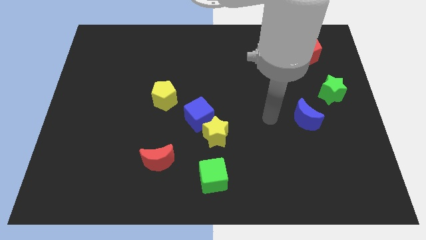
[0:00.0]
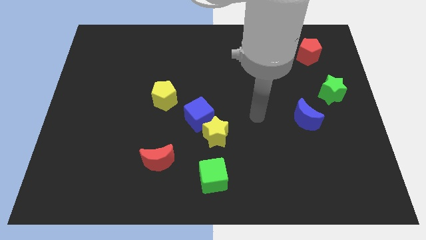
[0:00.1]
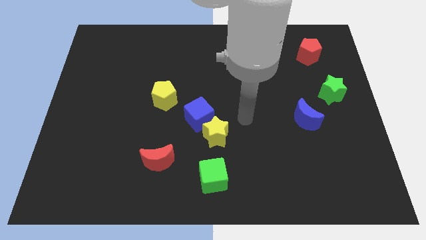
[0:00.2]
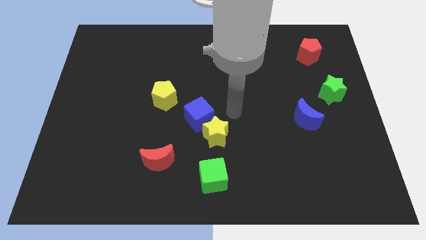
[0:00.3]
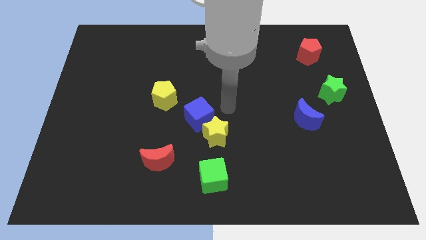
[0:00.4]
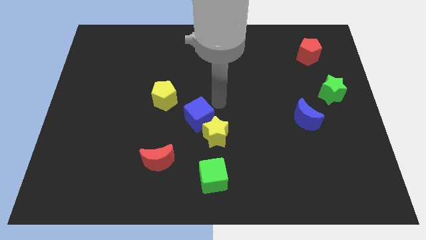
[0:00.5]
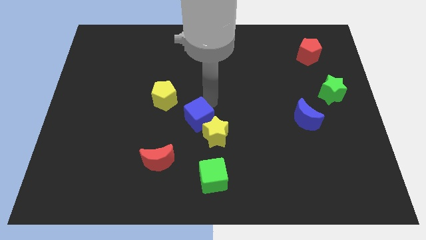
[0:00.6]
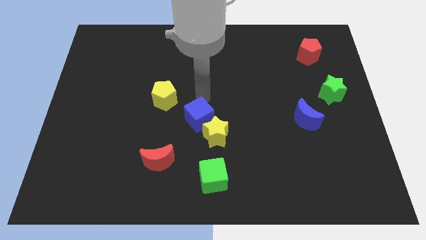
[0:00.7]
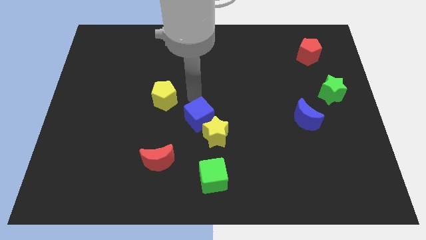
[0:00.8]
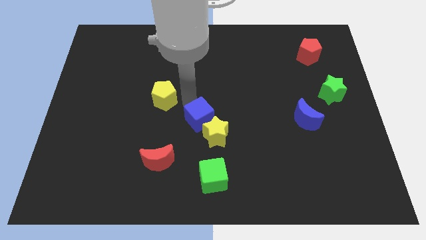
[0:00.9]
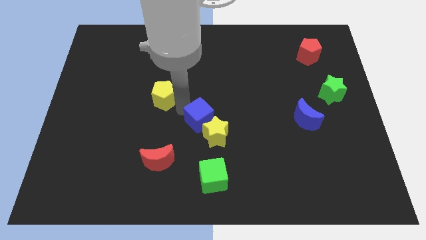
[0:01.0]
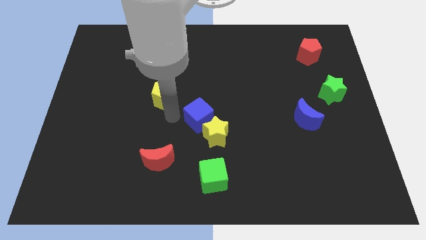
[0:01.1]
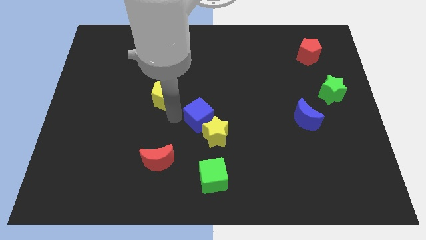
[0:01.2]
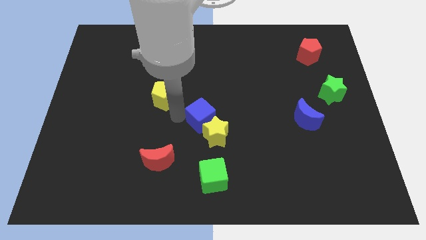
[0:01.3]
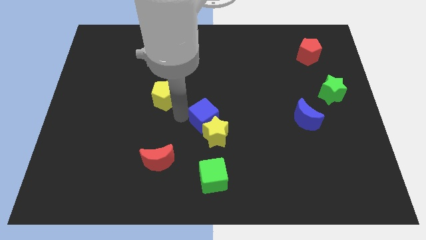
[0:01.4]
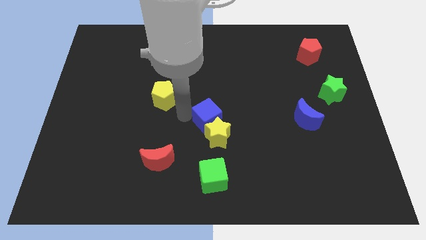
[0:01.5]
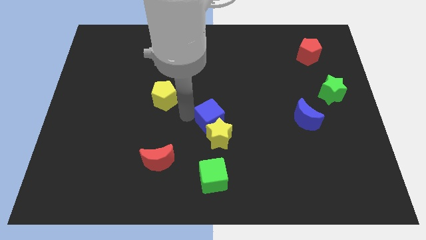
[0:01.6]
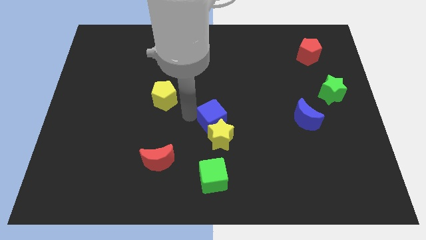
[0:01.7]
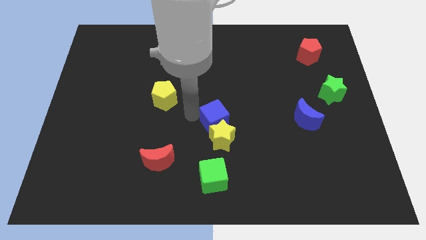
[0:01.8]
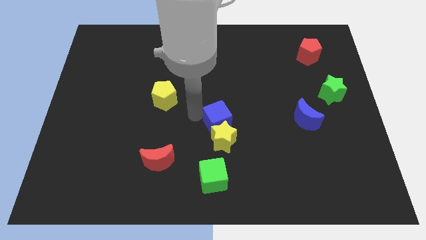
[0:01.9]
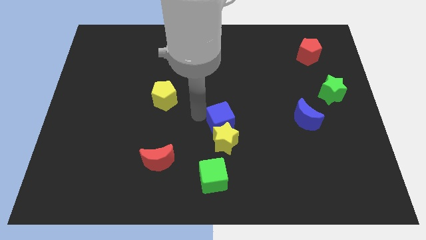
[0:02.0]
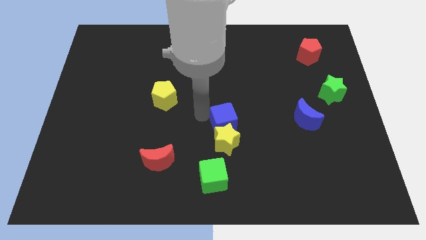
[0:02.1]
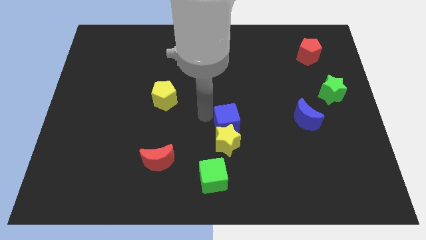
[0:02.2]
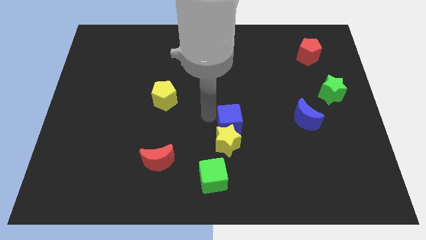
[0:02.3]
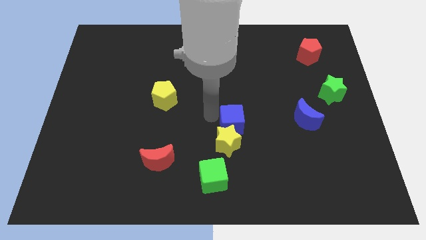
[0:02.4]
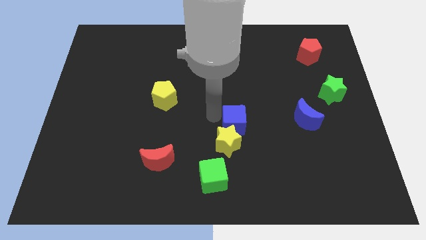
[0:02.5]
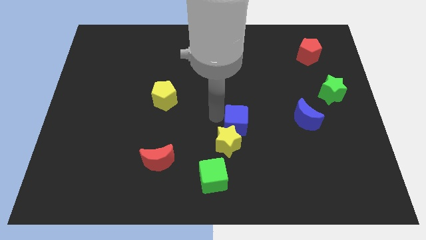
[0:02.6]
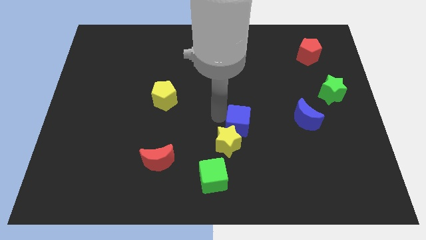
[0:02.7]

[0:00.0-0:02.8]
pull the blue cube apart from the yellow star and yellow pentagon

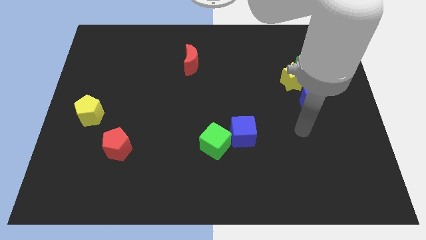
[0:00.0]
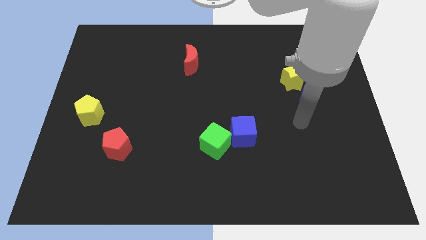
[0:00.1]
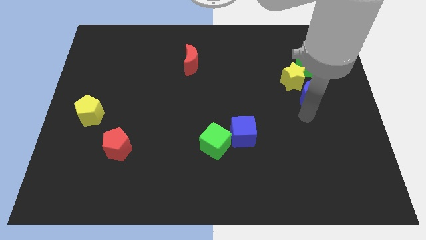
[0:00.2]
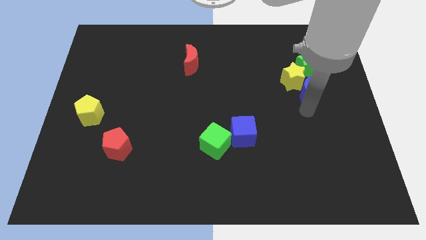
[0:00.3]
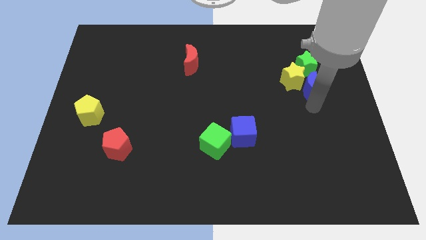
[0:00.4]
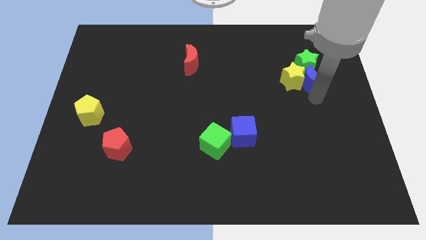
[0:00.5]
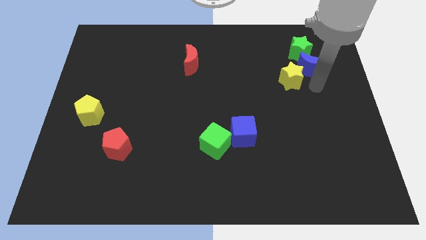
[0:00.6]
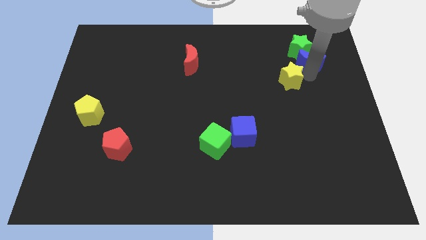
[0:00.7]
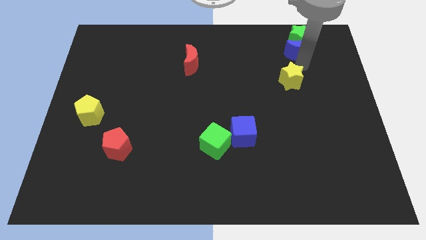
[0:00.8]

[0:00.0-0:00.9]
pull the yellow star apart from the green star and blue moon

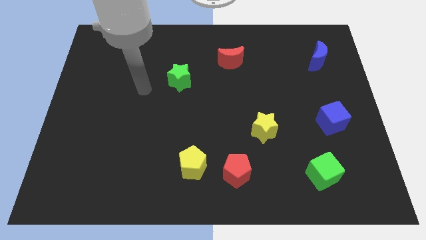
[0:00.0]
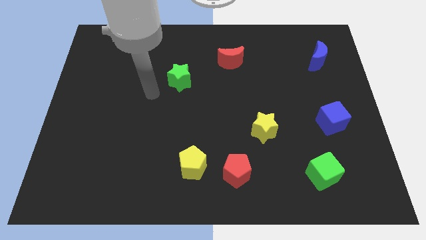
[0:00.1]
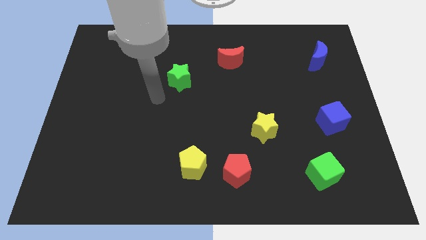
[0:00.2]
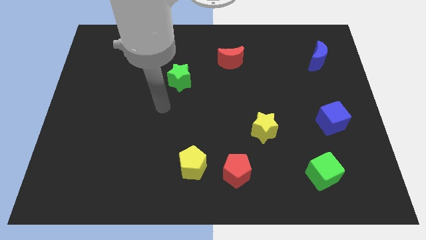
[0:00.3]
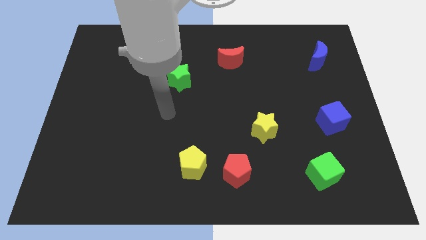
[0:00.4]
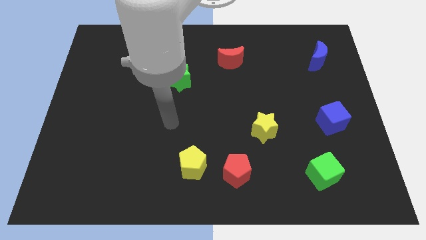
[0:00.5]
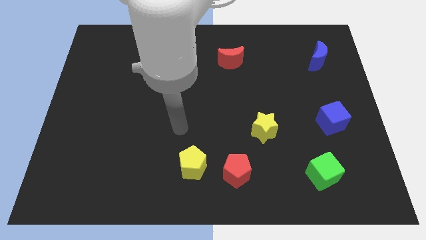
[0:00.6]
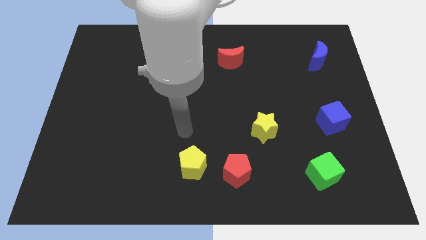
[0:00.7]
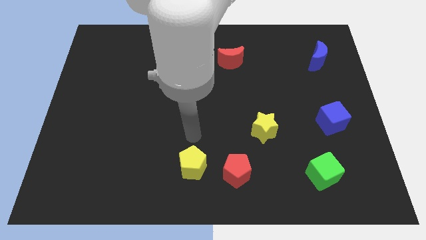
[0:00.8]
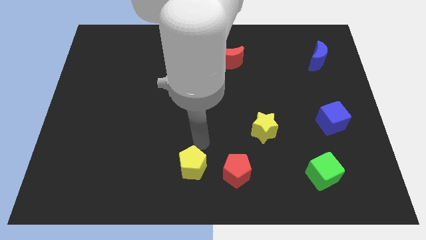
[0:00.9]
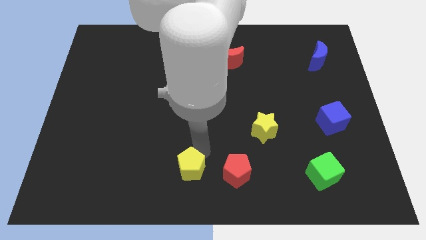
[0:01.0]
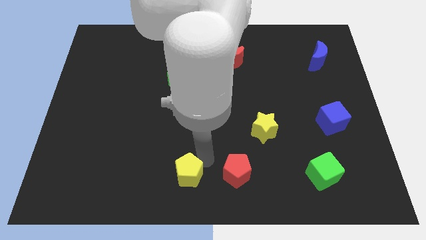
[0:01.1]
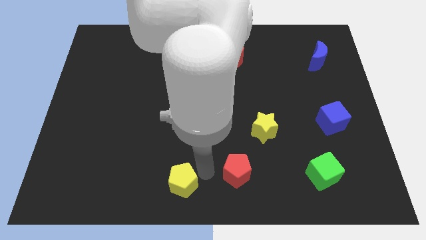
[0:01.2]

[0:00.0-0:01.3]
pull the red pentagon apart from the yellow pentagon

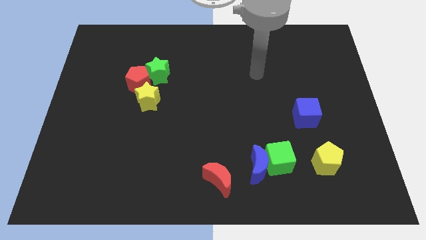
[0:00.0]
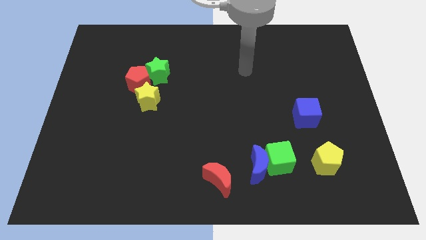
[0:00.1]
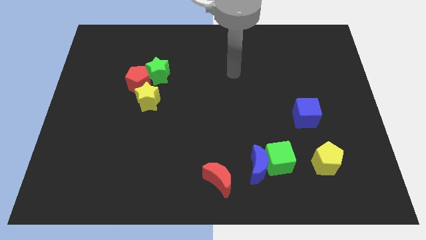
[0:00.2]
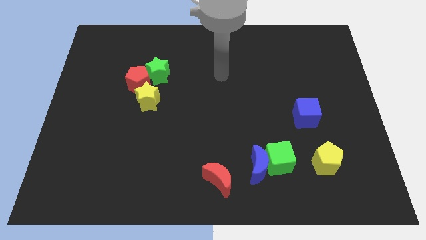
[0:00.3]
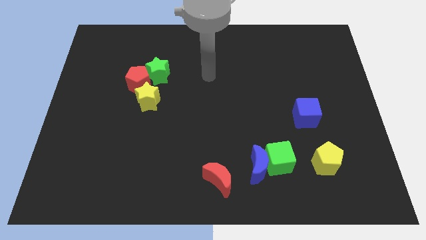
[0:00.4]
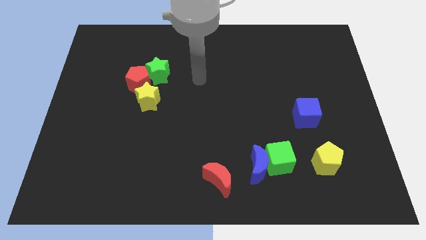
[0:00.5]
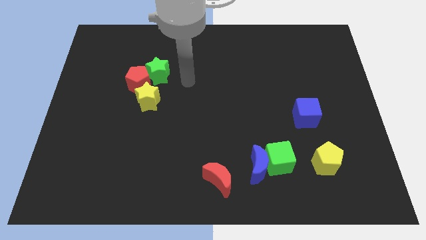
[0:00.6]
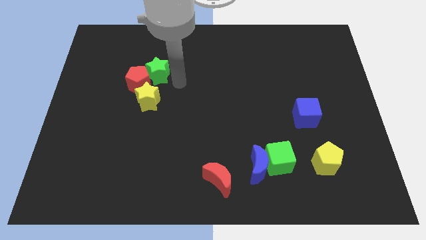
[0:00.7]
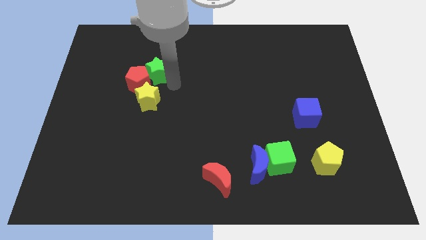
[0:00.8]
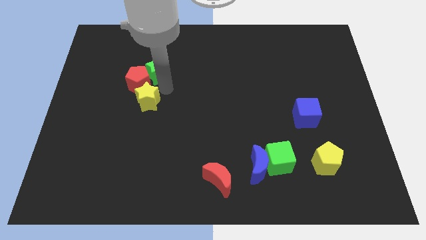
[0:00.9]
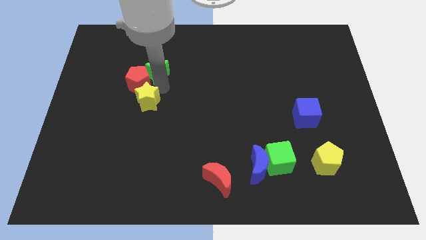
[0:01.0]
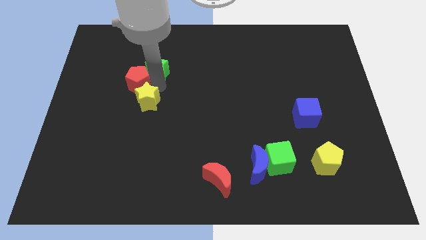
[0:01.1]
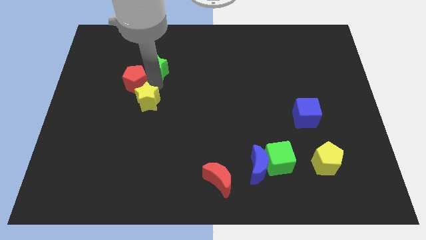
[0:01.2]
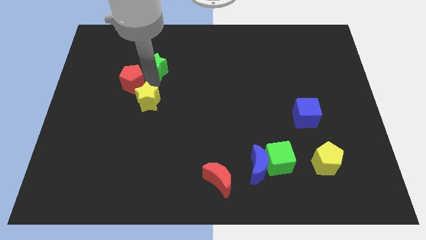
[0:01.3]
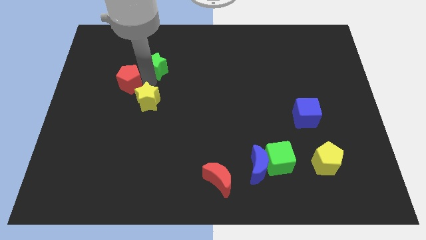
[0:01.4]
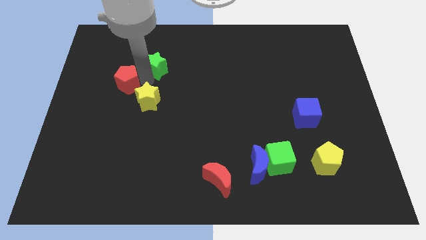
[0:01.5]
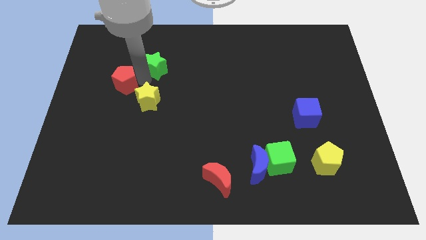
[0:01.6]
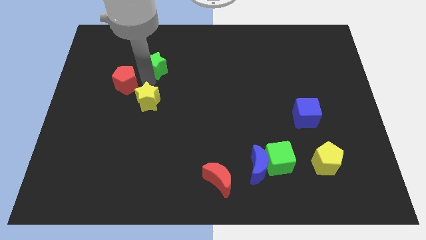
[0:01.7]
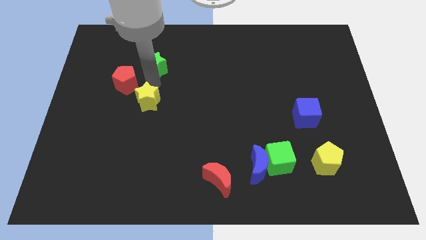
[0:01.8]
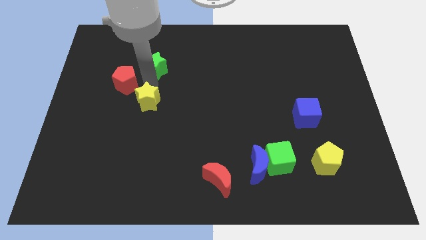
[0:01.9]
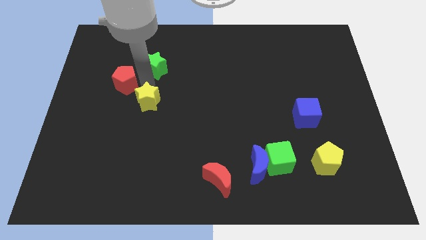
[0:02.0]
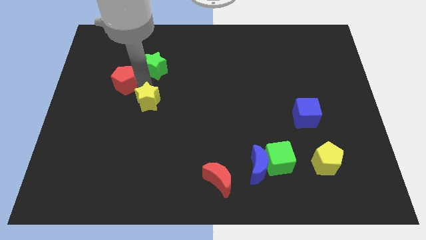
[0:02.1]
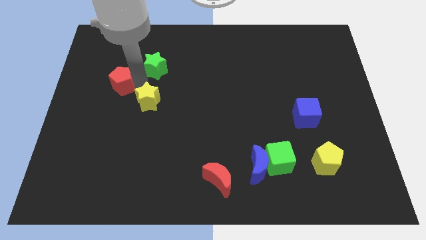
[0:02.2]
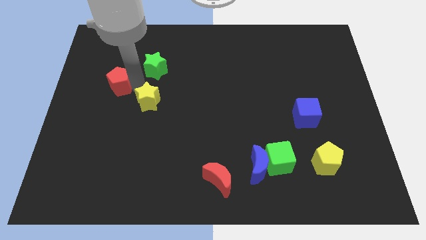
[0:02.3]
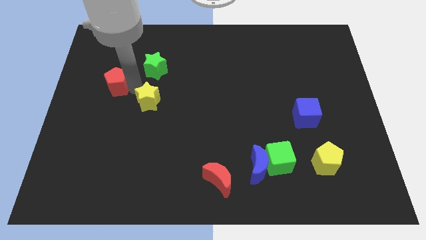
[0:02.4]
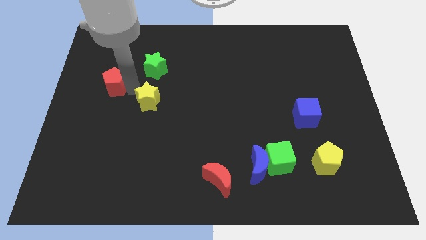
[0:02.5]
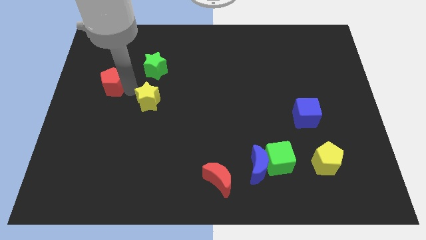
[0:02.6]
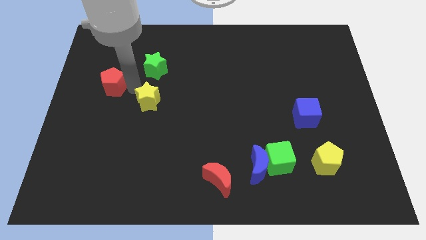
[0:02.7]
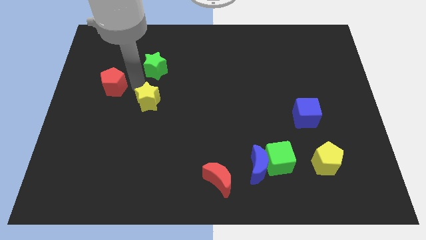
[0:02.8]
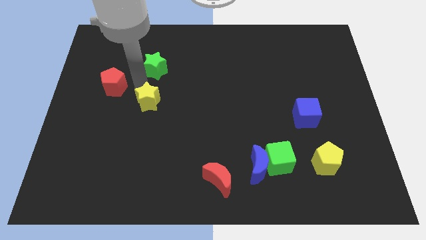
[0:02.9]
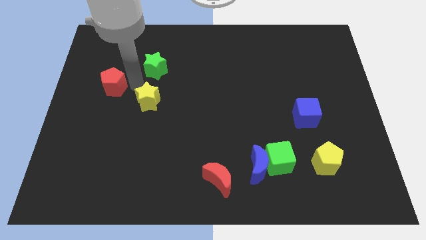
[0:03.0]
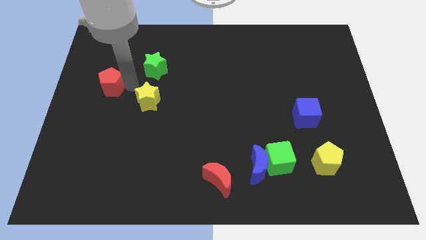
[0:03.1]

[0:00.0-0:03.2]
move the red pentagon away from the green star and yellow star

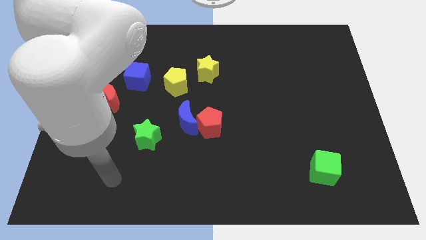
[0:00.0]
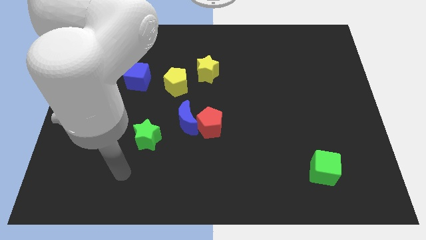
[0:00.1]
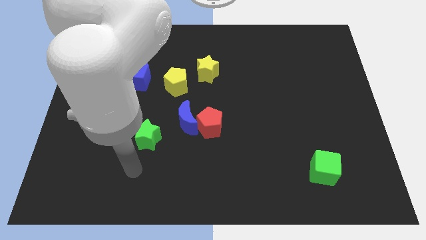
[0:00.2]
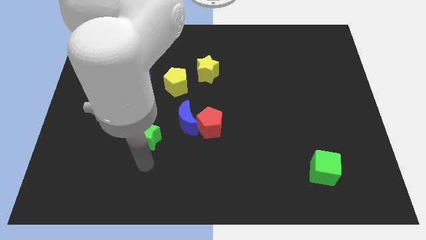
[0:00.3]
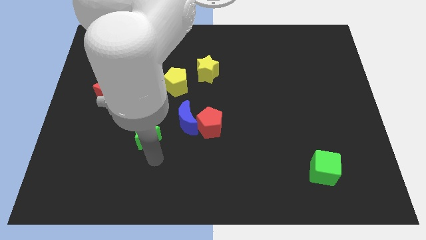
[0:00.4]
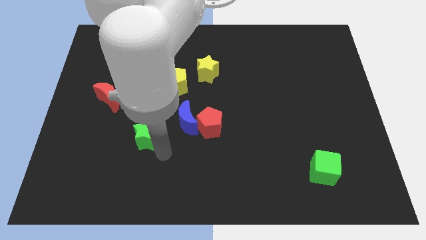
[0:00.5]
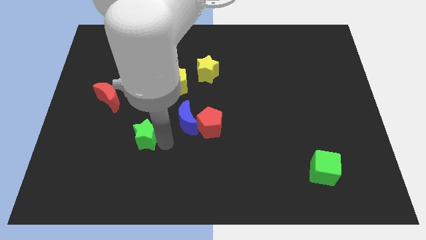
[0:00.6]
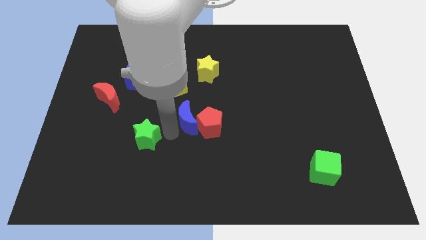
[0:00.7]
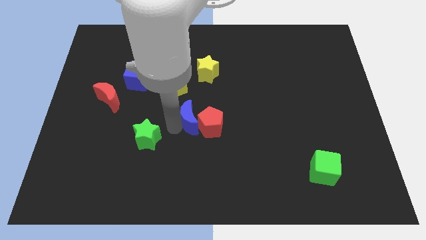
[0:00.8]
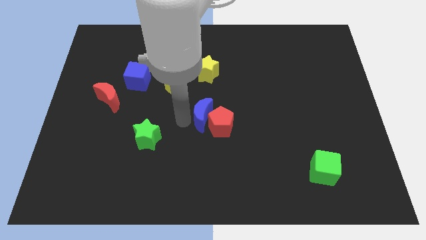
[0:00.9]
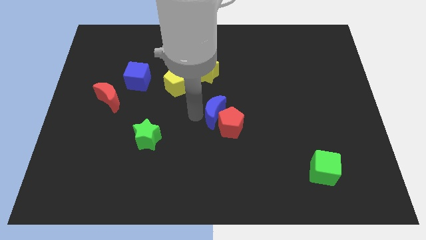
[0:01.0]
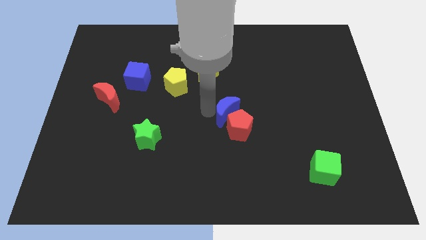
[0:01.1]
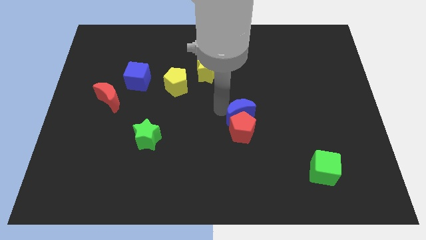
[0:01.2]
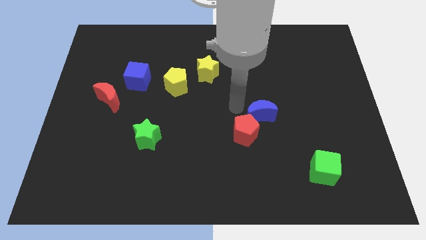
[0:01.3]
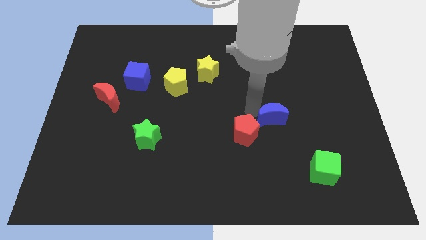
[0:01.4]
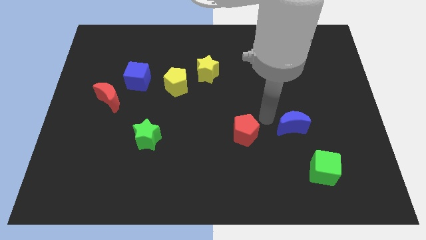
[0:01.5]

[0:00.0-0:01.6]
move the red pentagon away from the blue moon
